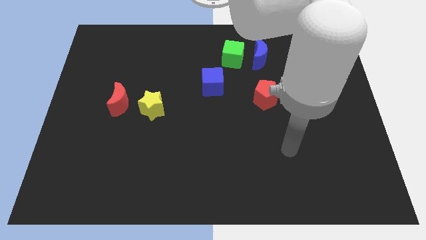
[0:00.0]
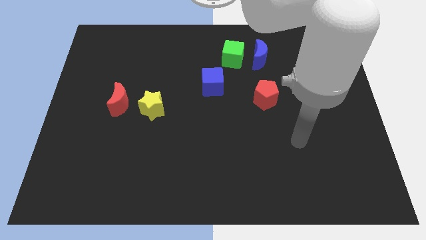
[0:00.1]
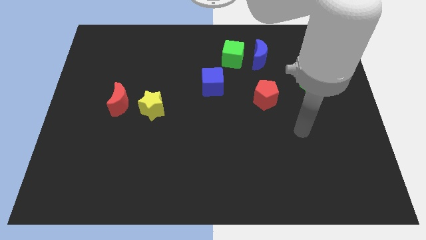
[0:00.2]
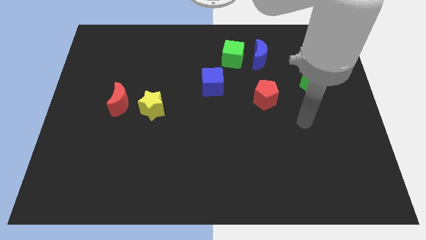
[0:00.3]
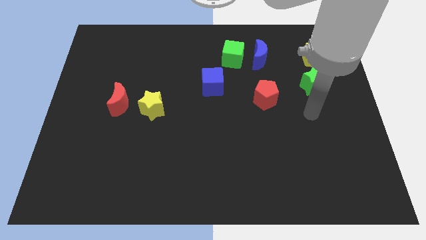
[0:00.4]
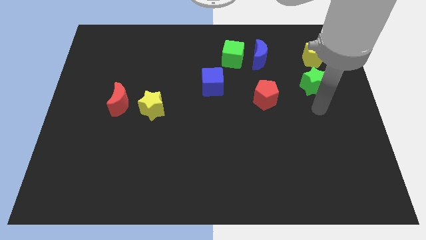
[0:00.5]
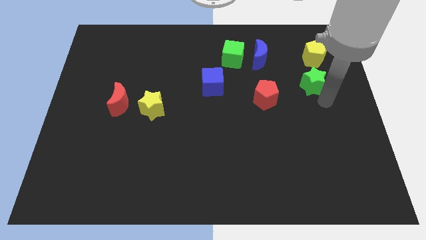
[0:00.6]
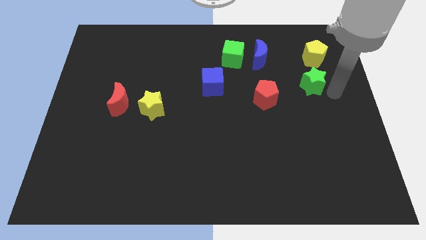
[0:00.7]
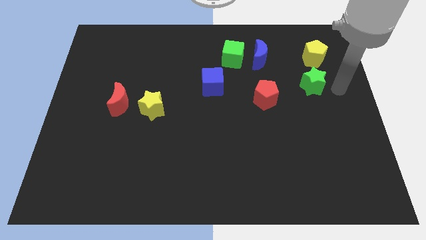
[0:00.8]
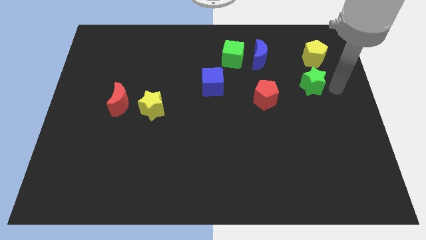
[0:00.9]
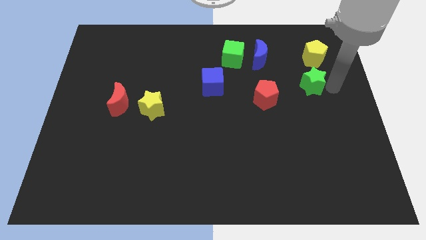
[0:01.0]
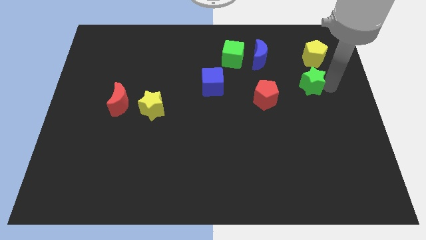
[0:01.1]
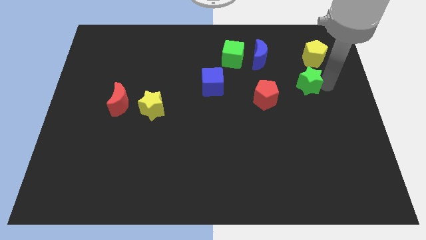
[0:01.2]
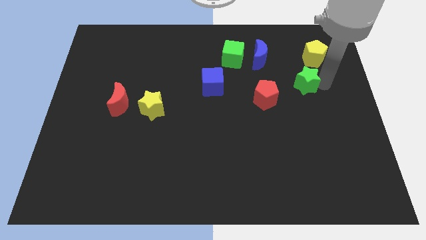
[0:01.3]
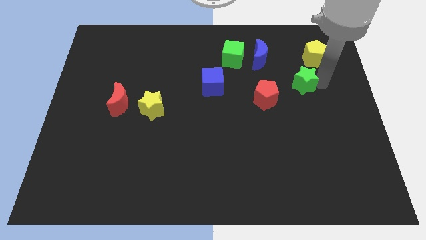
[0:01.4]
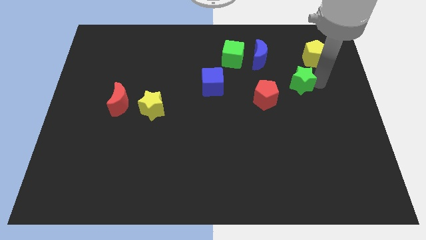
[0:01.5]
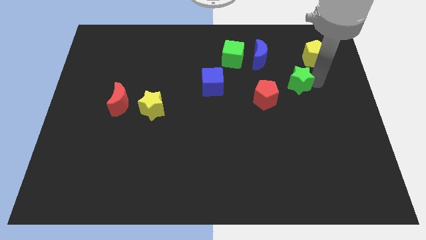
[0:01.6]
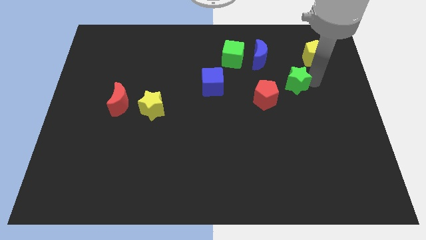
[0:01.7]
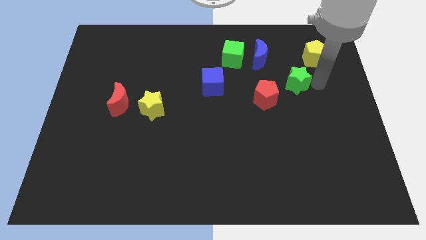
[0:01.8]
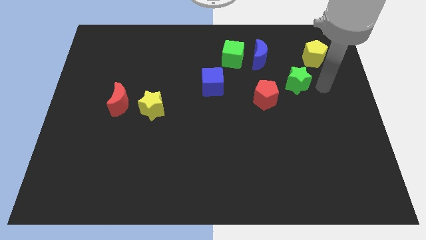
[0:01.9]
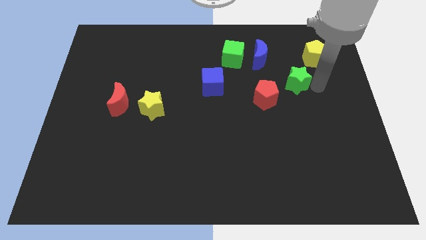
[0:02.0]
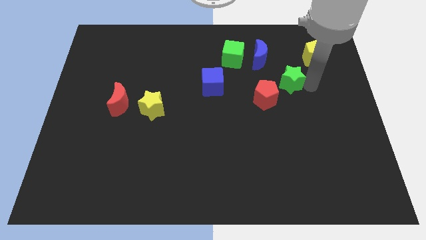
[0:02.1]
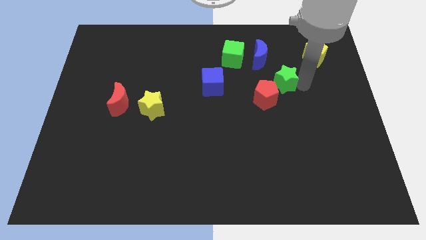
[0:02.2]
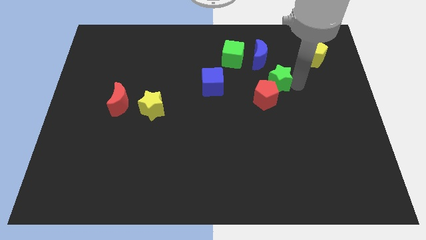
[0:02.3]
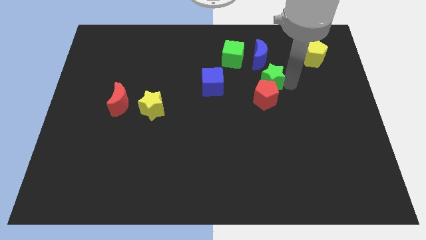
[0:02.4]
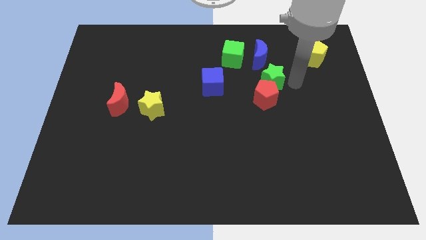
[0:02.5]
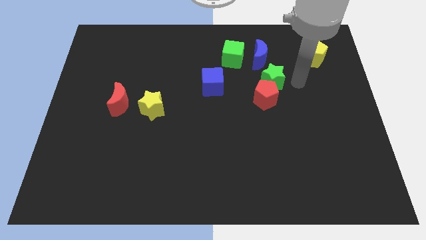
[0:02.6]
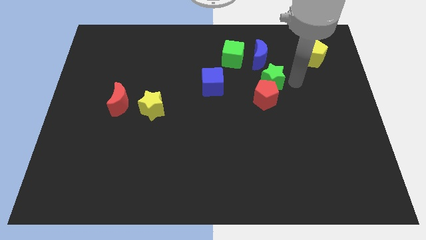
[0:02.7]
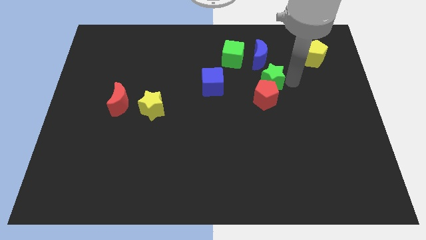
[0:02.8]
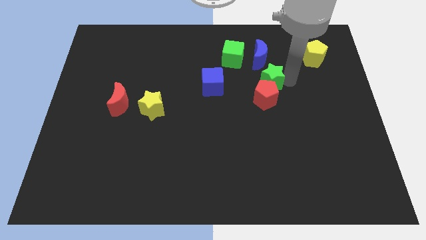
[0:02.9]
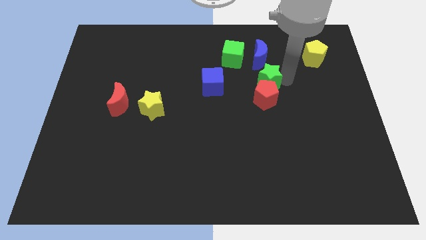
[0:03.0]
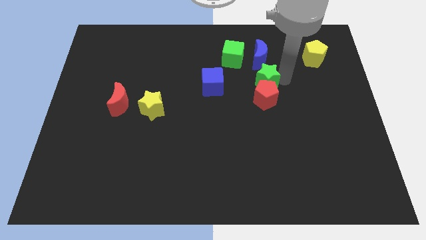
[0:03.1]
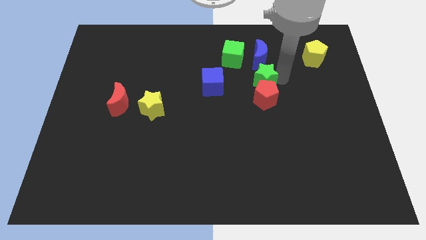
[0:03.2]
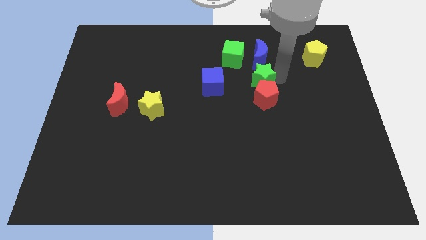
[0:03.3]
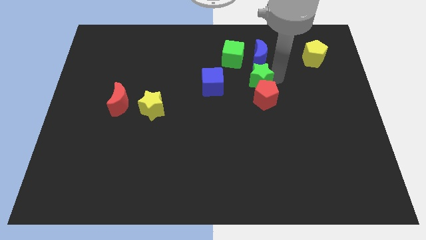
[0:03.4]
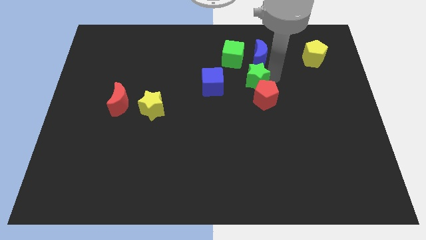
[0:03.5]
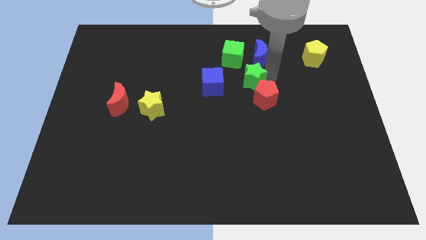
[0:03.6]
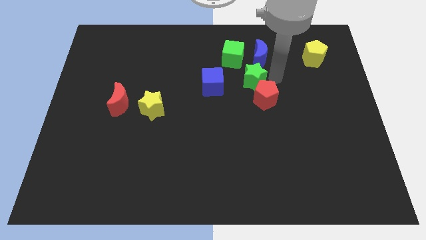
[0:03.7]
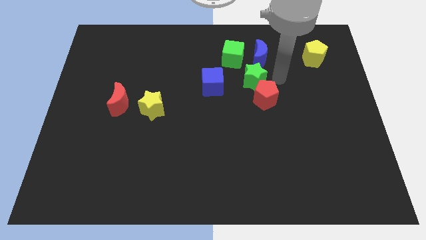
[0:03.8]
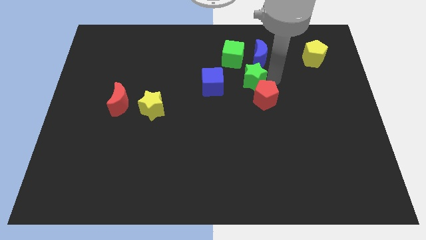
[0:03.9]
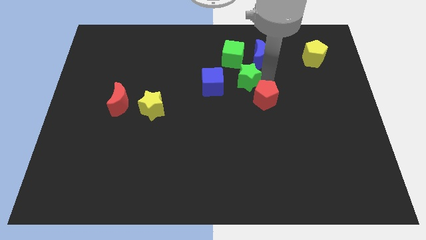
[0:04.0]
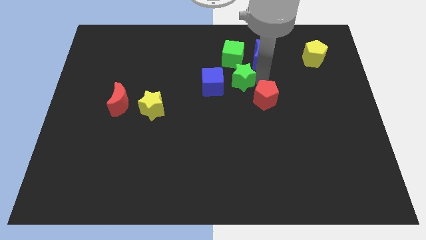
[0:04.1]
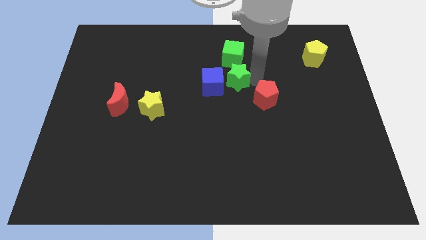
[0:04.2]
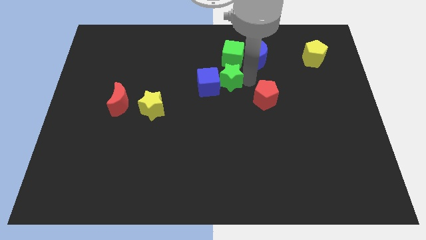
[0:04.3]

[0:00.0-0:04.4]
move the green star towards the blue cube

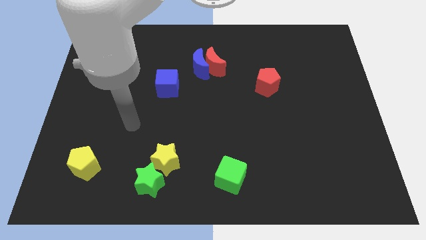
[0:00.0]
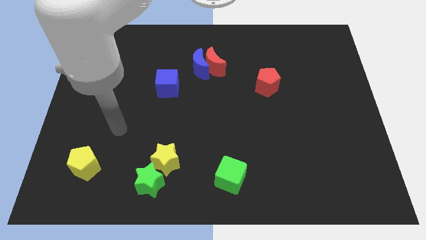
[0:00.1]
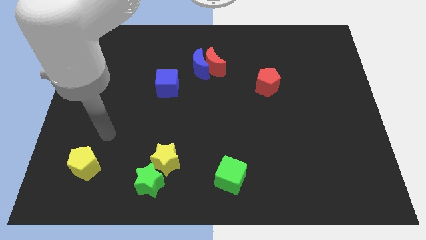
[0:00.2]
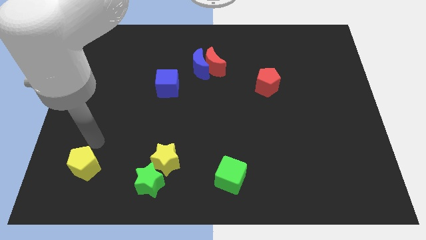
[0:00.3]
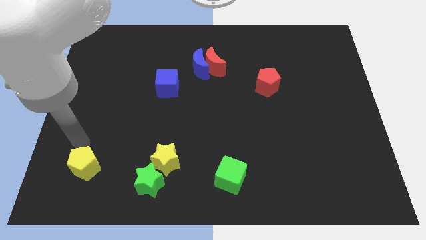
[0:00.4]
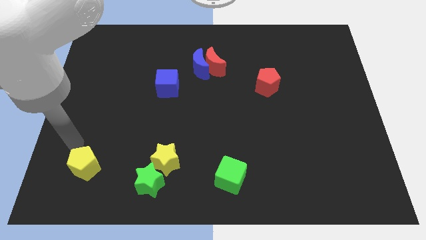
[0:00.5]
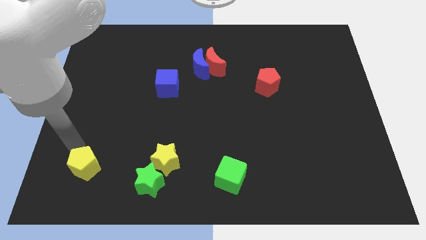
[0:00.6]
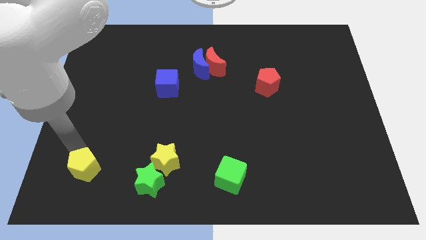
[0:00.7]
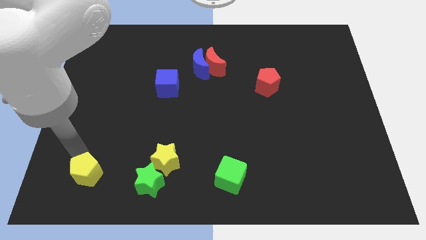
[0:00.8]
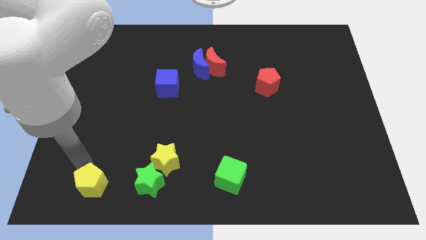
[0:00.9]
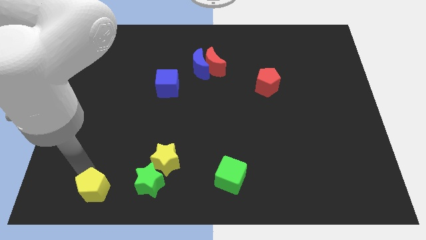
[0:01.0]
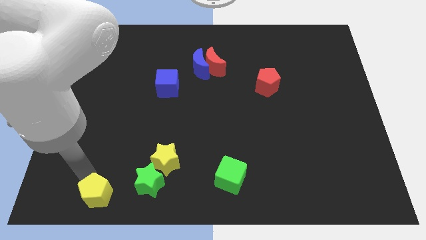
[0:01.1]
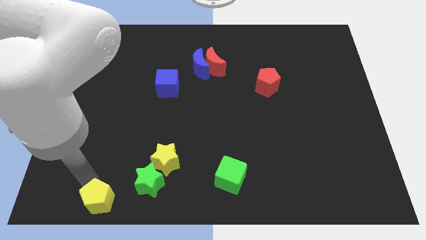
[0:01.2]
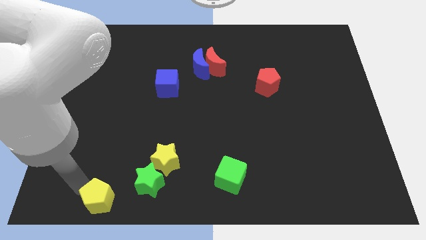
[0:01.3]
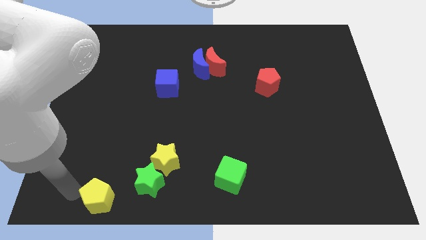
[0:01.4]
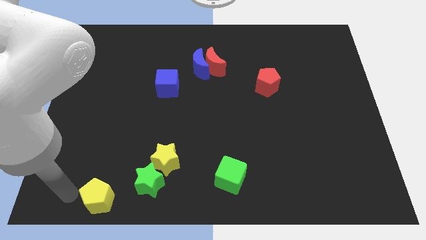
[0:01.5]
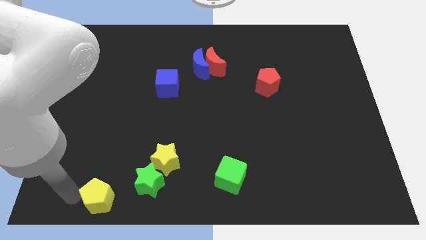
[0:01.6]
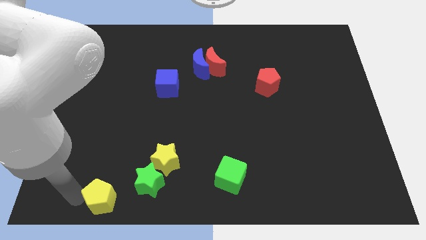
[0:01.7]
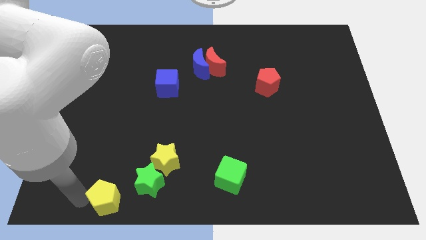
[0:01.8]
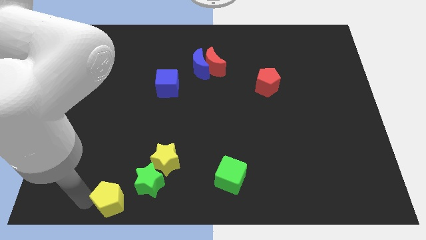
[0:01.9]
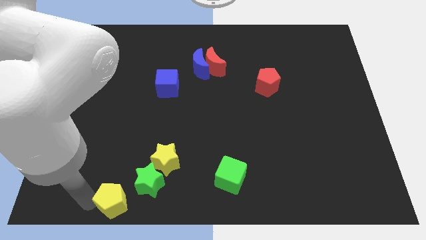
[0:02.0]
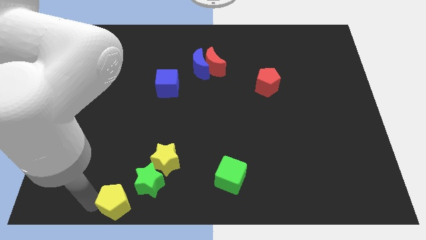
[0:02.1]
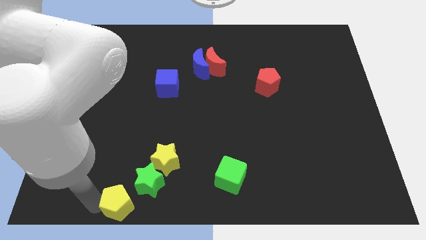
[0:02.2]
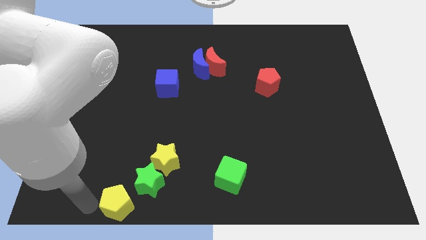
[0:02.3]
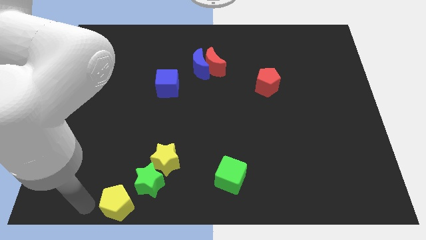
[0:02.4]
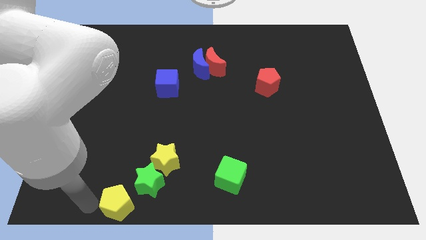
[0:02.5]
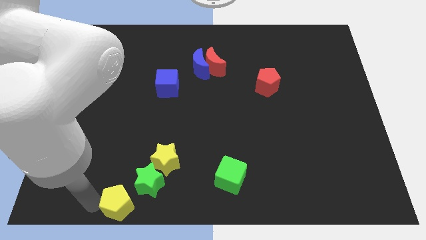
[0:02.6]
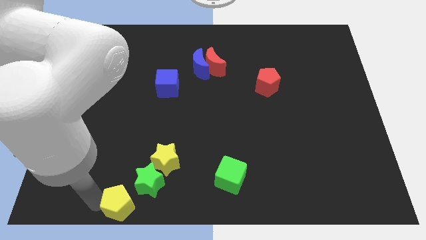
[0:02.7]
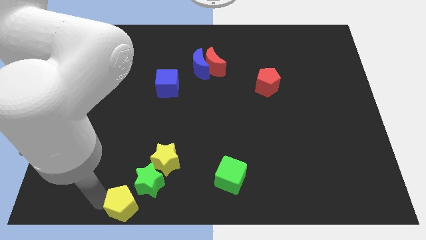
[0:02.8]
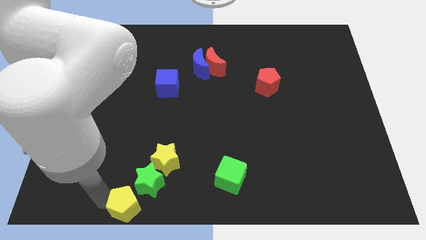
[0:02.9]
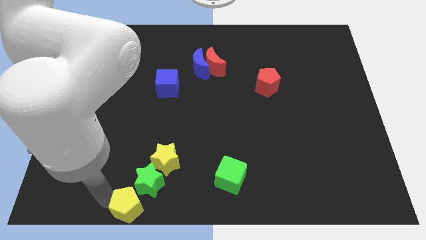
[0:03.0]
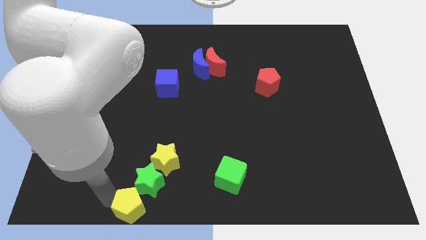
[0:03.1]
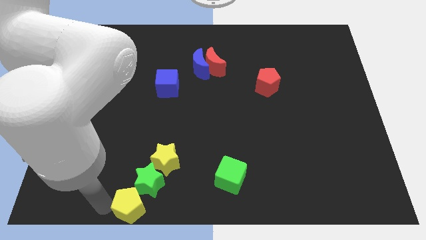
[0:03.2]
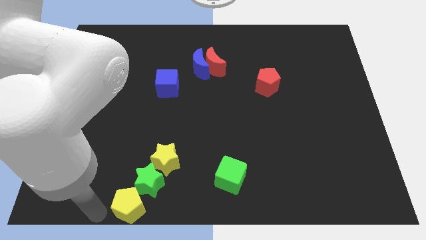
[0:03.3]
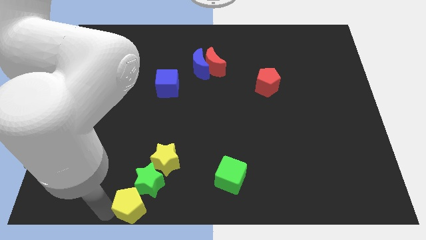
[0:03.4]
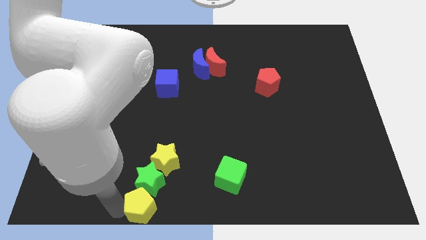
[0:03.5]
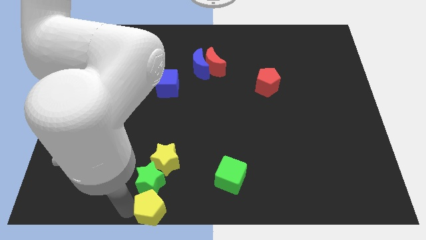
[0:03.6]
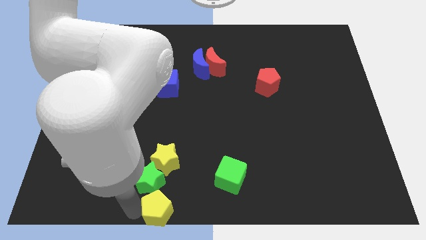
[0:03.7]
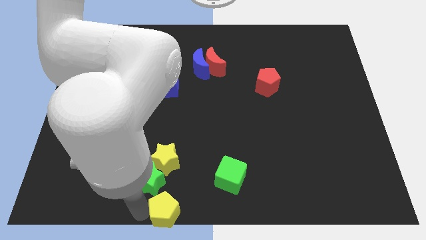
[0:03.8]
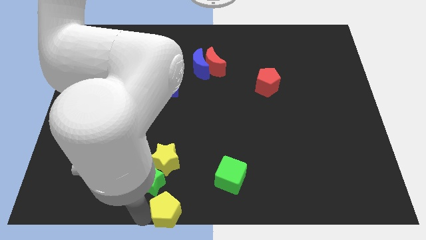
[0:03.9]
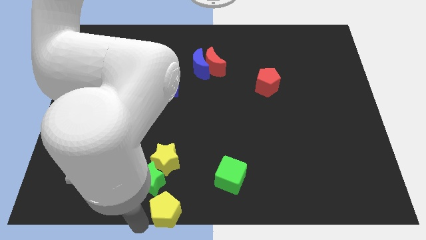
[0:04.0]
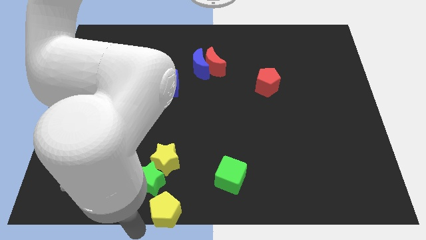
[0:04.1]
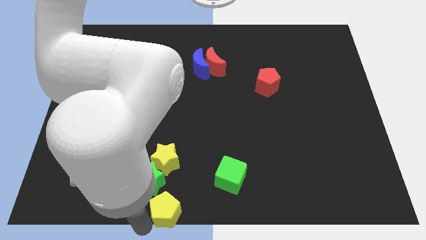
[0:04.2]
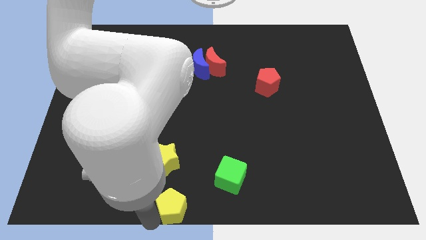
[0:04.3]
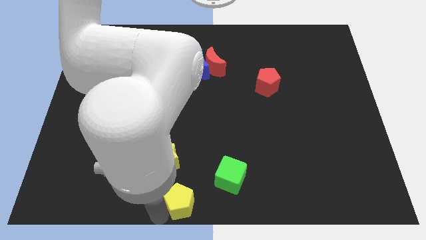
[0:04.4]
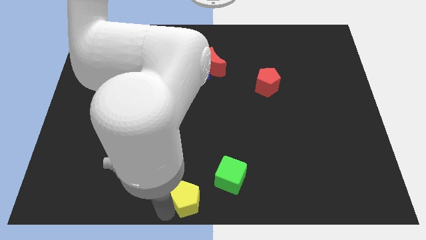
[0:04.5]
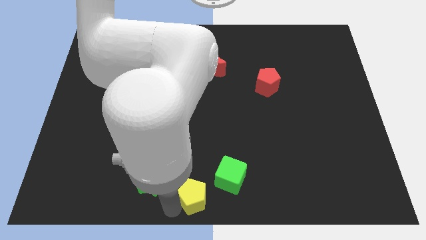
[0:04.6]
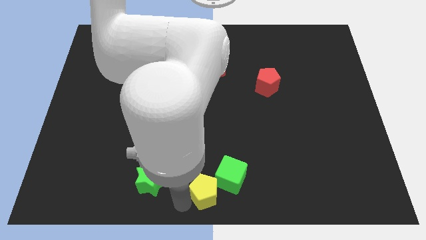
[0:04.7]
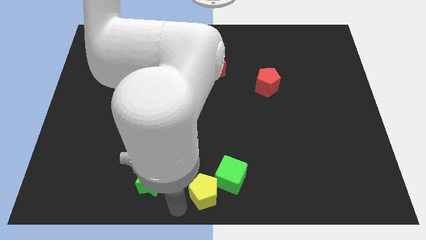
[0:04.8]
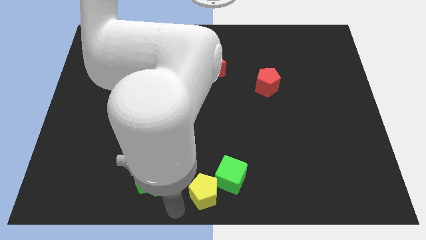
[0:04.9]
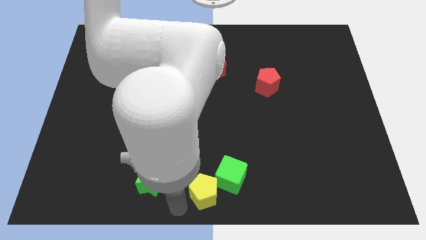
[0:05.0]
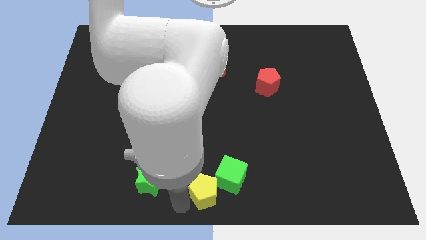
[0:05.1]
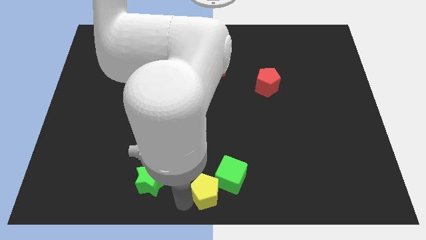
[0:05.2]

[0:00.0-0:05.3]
put the yellow pentagon to the green cube
